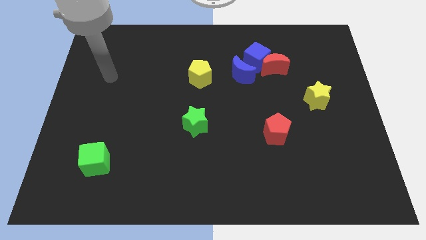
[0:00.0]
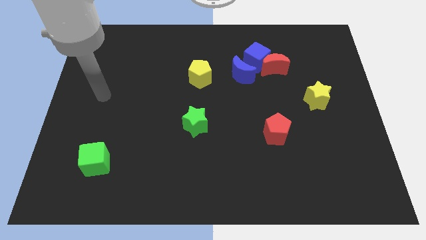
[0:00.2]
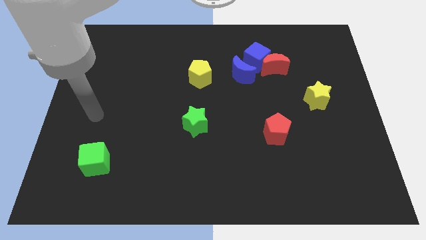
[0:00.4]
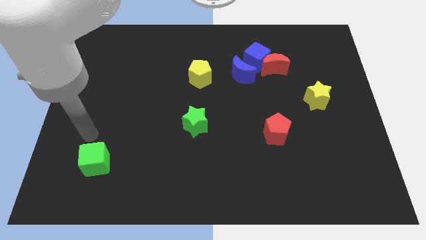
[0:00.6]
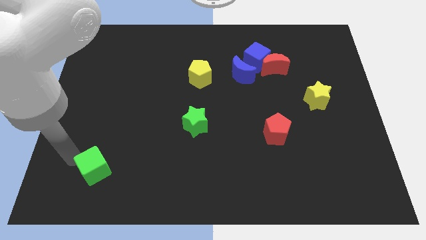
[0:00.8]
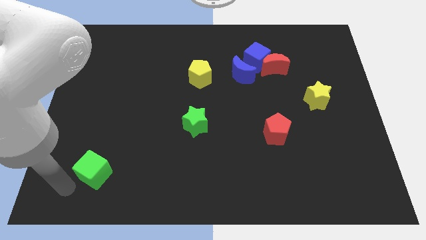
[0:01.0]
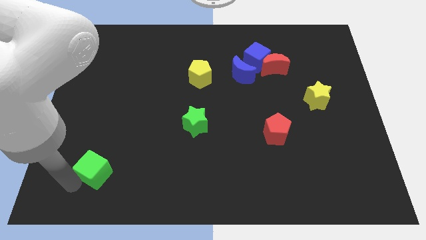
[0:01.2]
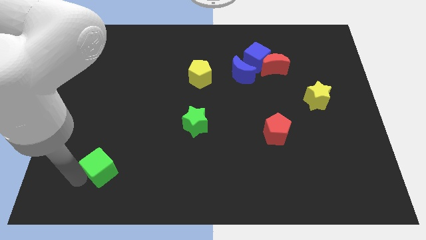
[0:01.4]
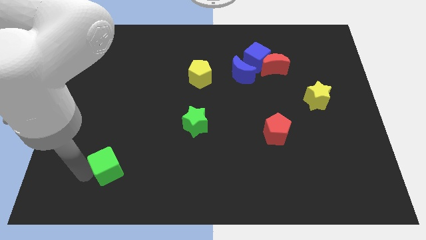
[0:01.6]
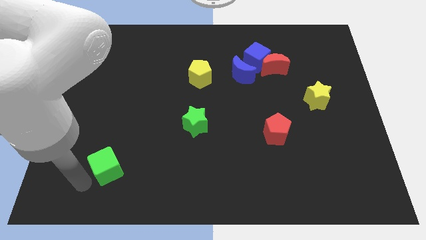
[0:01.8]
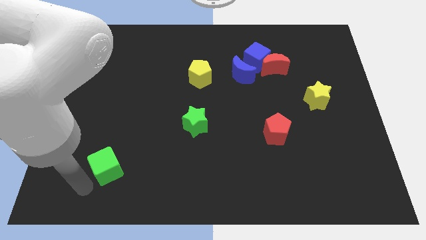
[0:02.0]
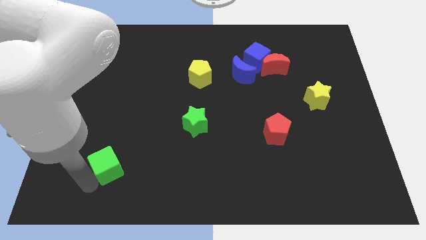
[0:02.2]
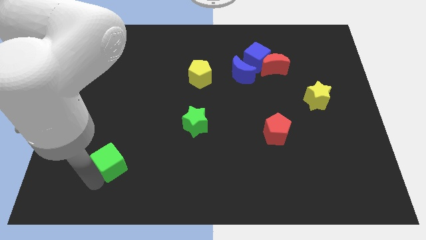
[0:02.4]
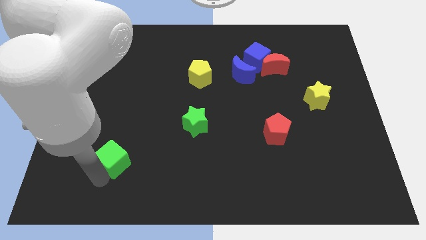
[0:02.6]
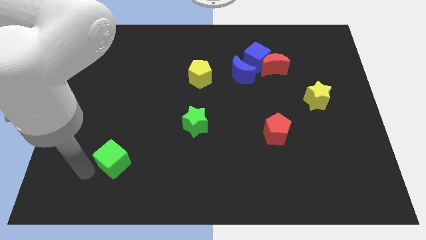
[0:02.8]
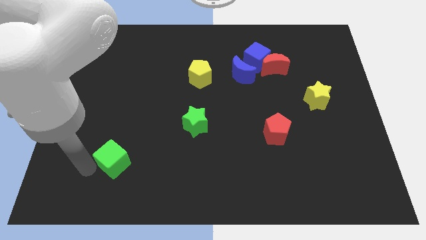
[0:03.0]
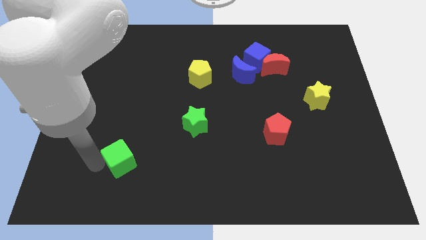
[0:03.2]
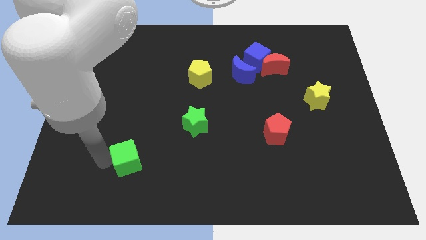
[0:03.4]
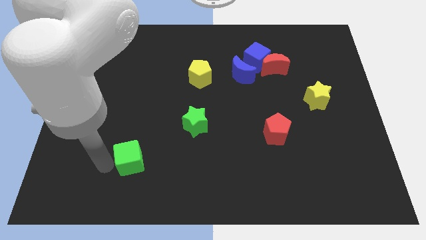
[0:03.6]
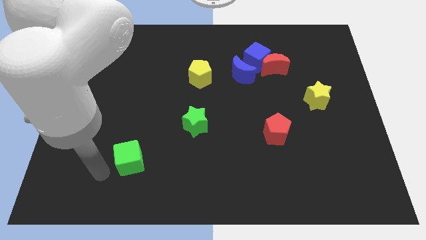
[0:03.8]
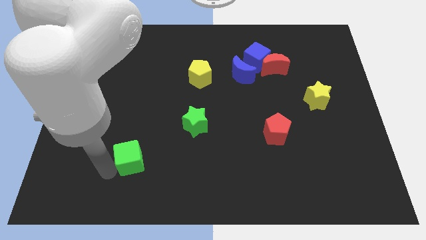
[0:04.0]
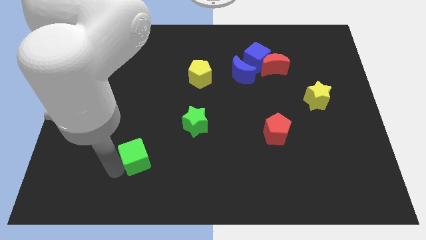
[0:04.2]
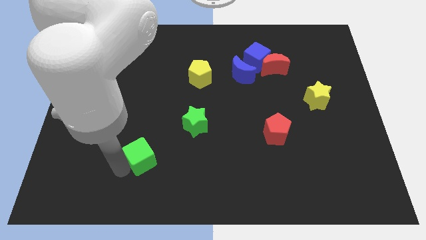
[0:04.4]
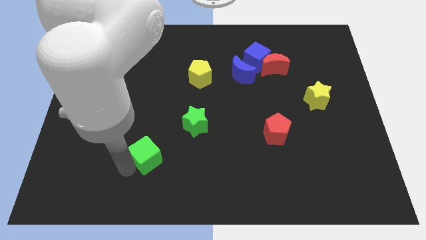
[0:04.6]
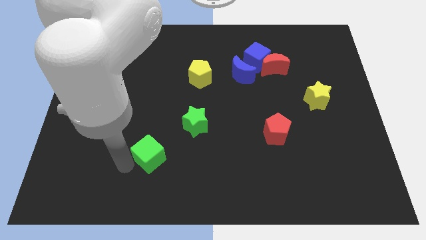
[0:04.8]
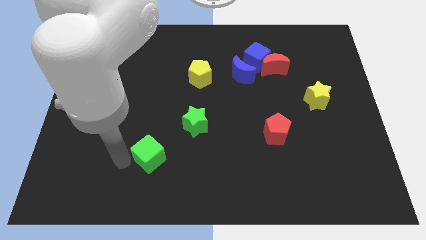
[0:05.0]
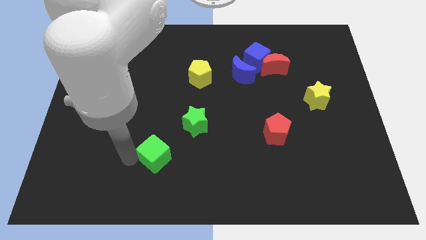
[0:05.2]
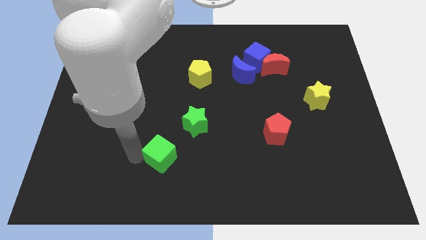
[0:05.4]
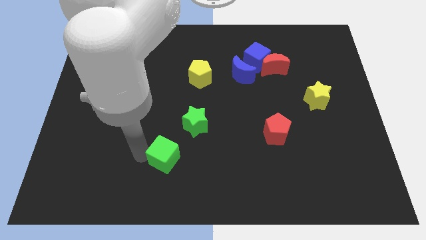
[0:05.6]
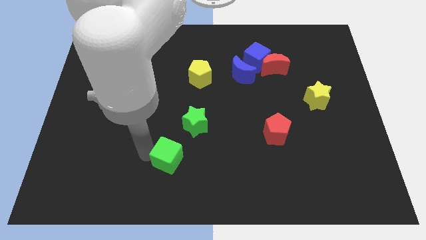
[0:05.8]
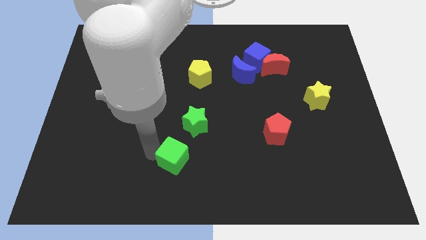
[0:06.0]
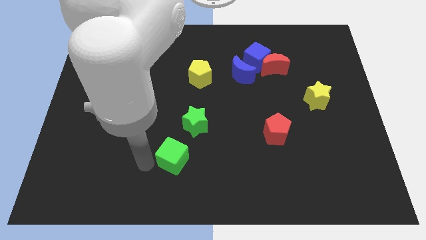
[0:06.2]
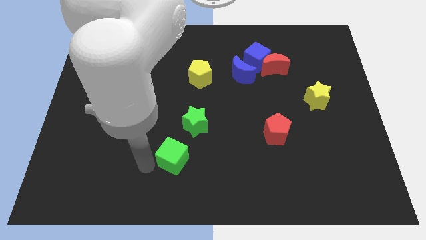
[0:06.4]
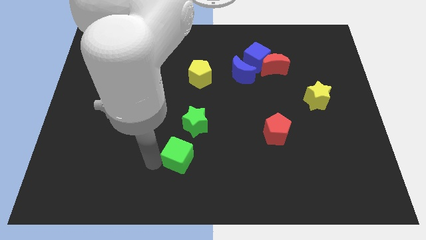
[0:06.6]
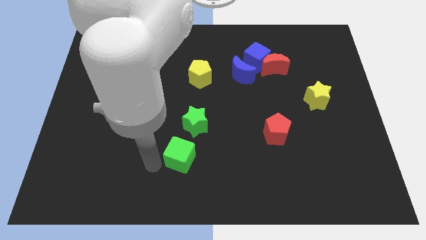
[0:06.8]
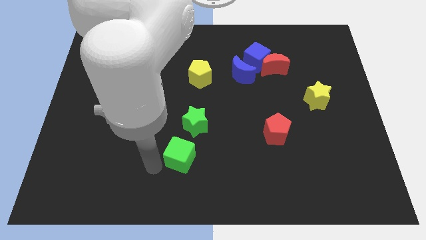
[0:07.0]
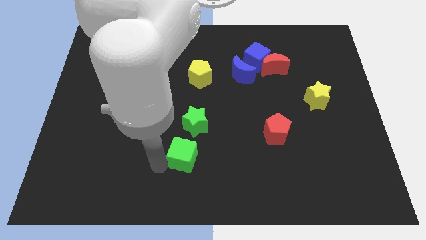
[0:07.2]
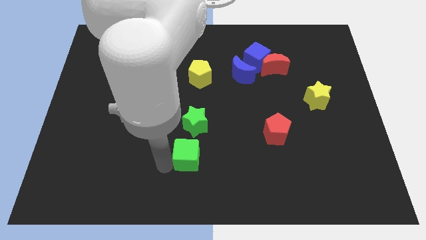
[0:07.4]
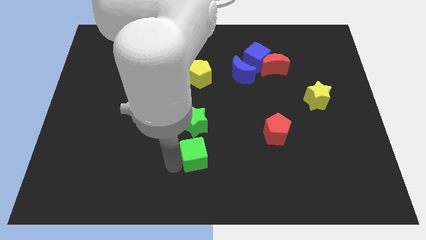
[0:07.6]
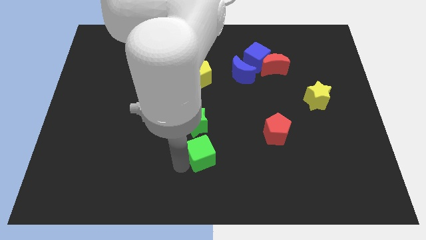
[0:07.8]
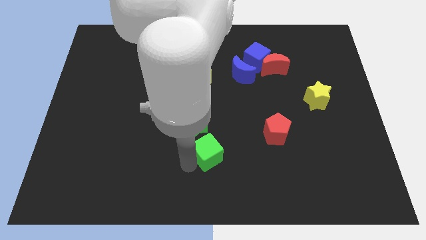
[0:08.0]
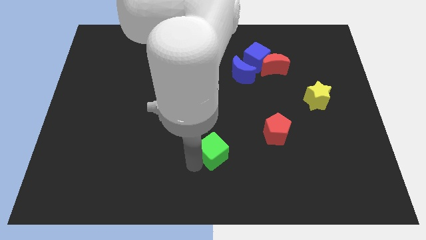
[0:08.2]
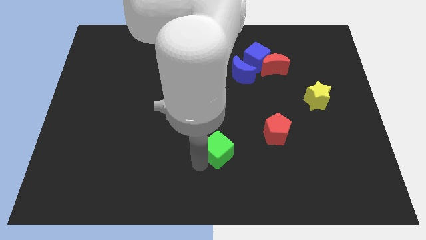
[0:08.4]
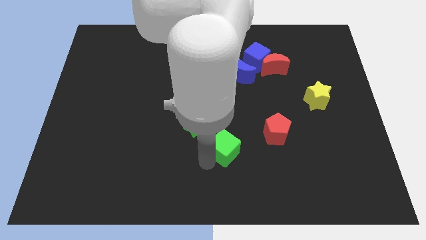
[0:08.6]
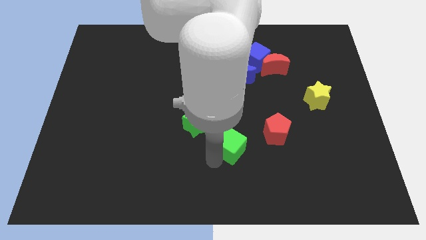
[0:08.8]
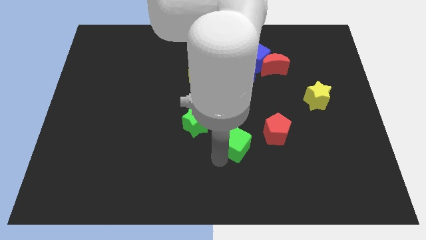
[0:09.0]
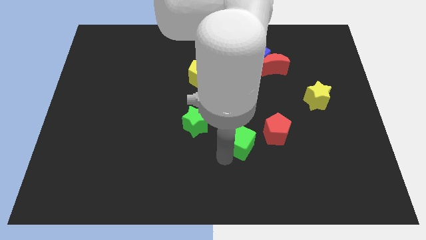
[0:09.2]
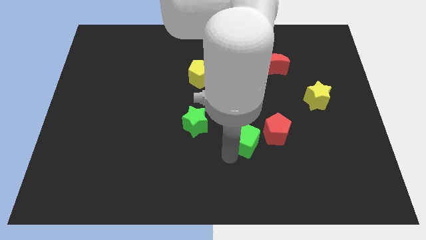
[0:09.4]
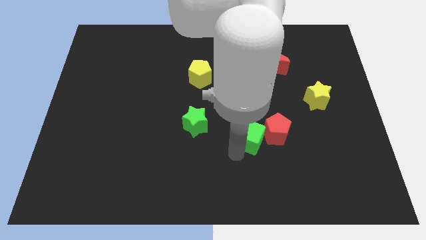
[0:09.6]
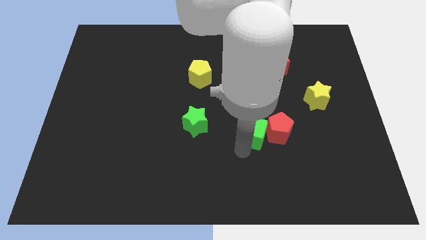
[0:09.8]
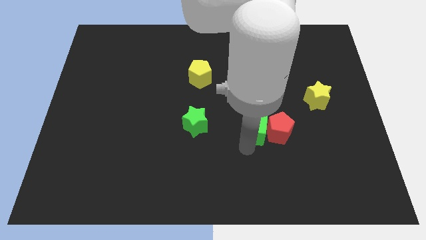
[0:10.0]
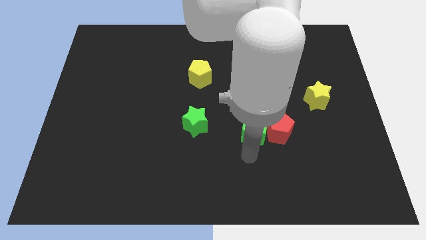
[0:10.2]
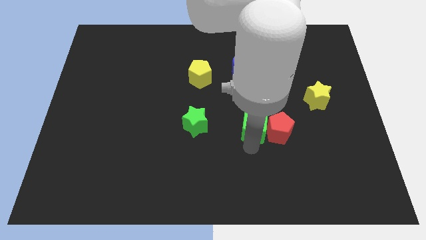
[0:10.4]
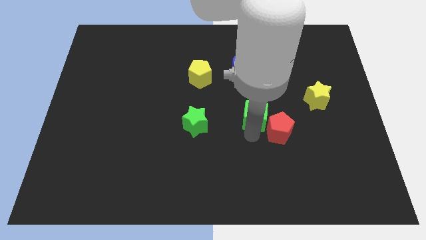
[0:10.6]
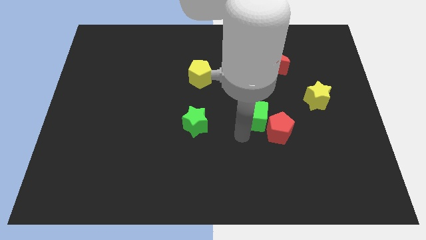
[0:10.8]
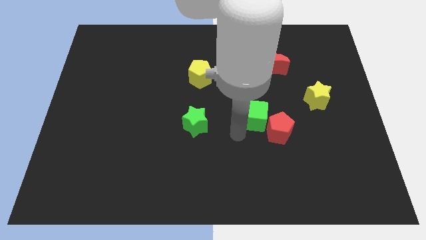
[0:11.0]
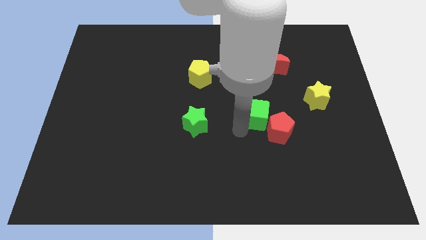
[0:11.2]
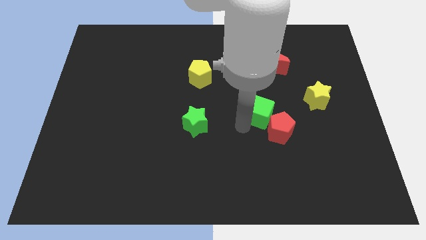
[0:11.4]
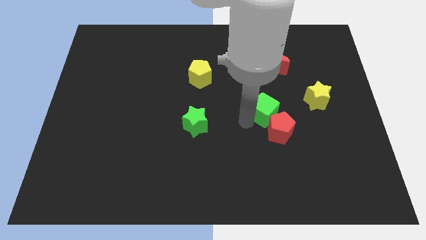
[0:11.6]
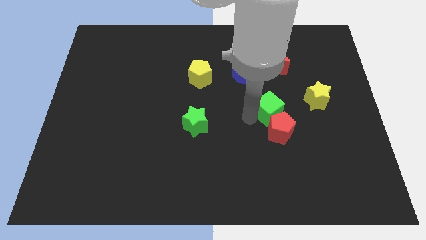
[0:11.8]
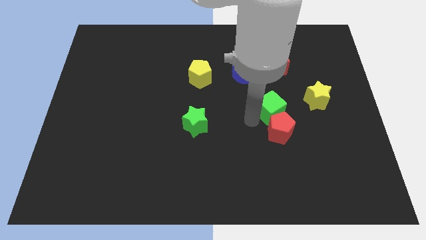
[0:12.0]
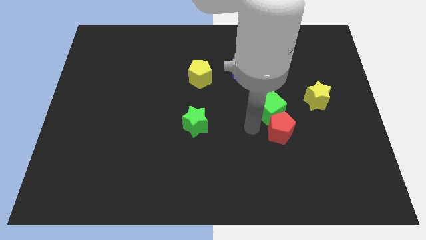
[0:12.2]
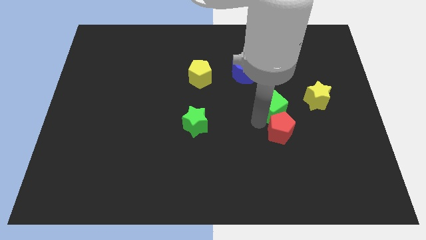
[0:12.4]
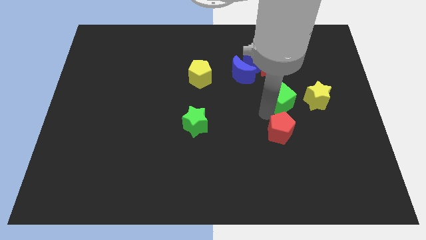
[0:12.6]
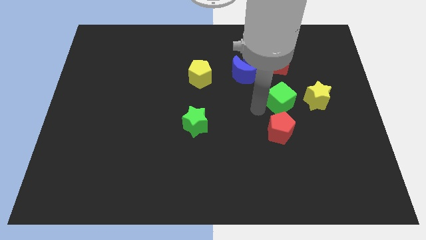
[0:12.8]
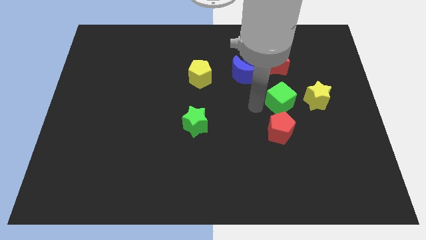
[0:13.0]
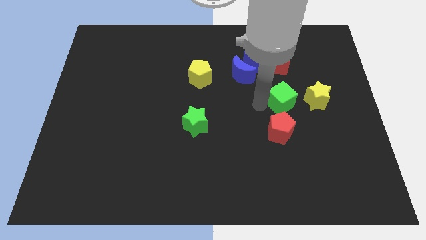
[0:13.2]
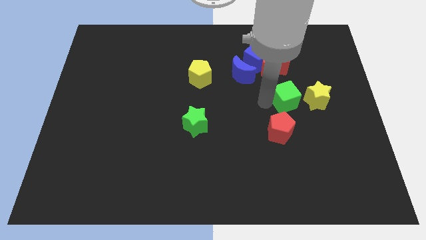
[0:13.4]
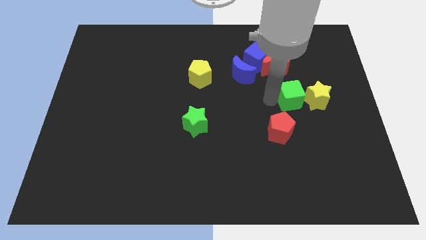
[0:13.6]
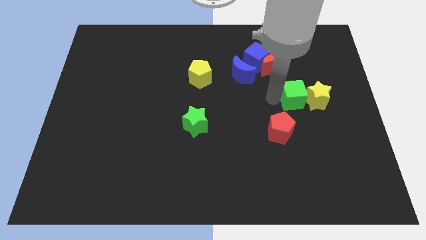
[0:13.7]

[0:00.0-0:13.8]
move the green cube towards the yellow star

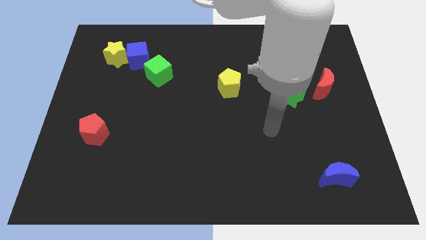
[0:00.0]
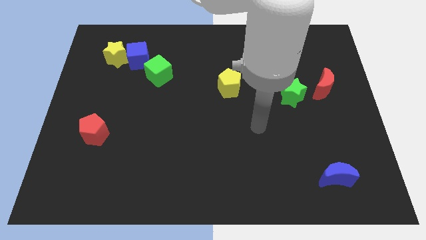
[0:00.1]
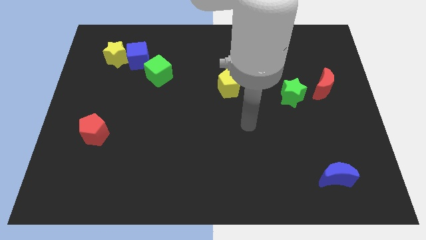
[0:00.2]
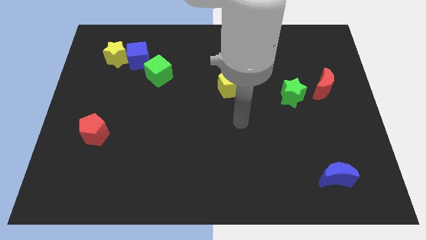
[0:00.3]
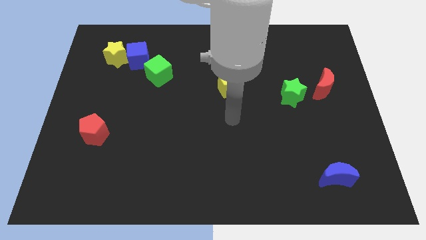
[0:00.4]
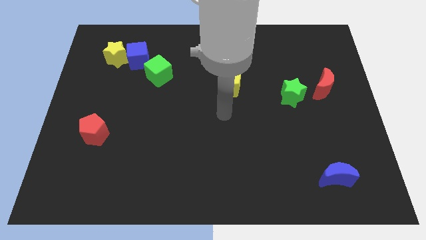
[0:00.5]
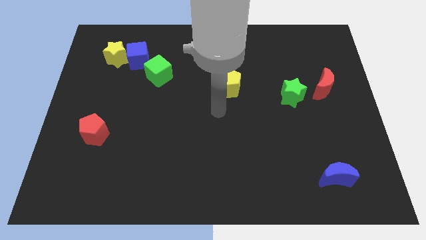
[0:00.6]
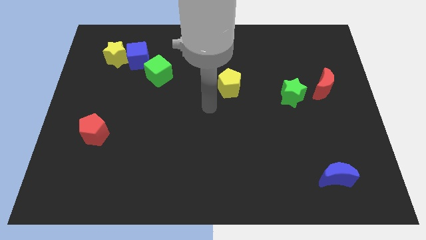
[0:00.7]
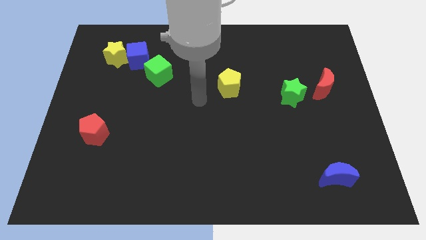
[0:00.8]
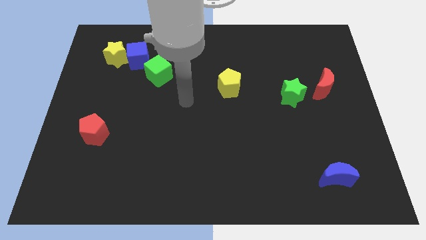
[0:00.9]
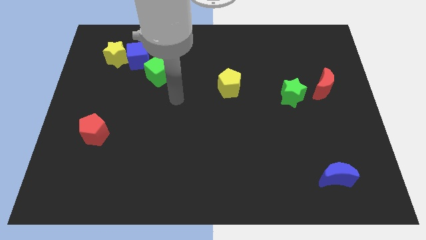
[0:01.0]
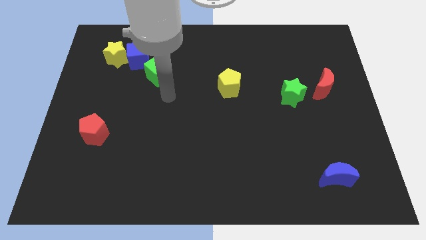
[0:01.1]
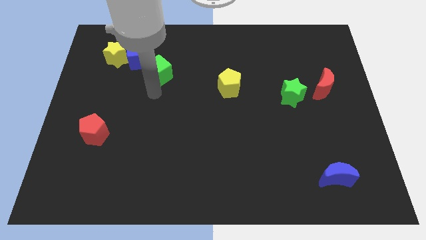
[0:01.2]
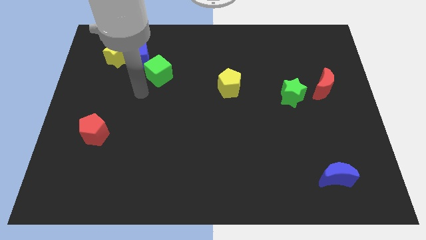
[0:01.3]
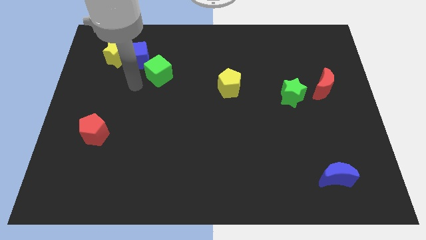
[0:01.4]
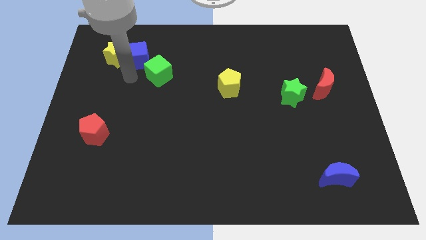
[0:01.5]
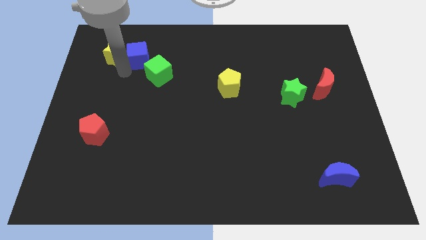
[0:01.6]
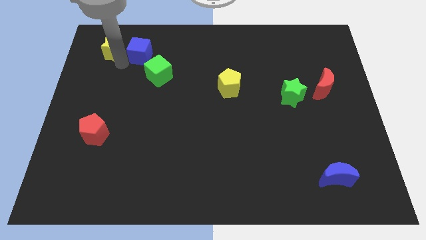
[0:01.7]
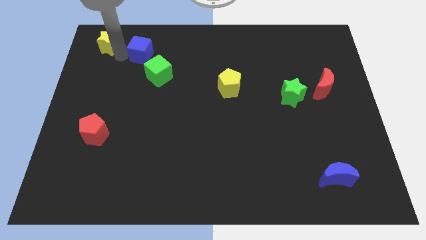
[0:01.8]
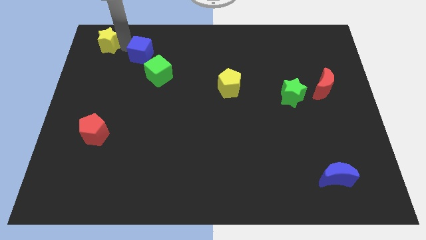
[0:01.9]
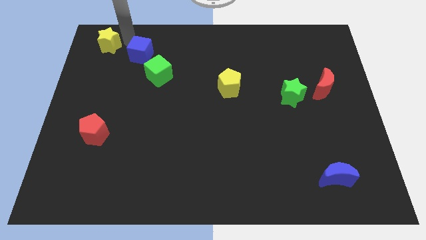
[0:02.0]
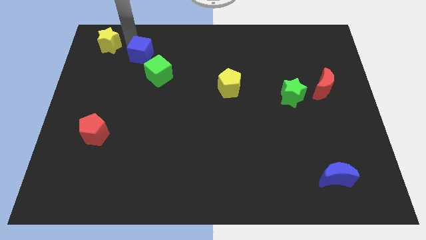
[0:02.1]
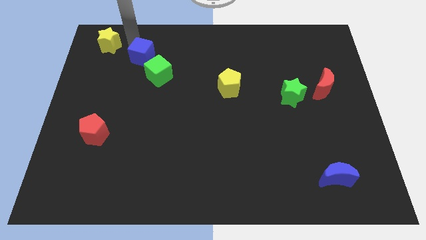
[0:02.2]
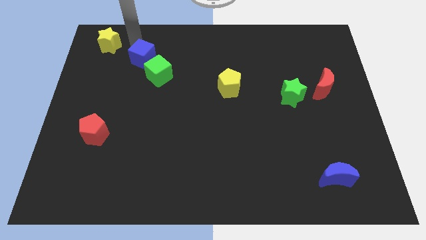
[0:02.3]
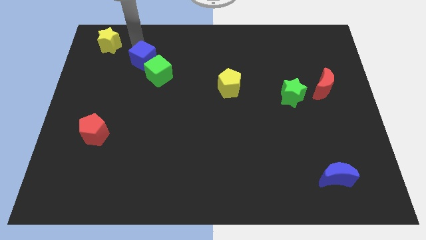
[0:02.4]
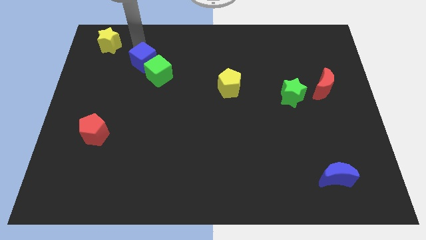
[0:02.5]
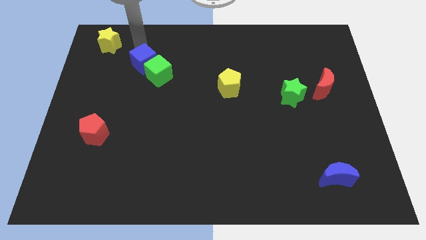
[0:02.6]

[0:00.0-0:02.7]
push the blue cube next to the green cube
